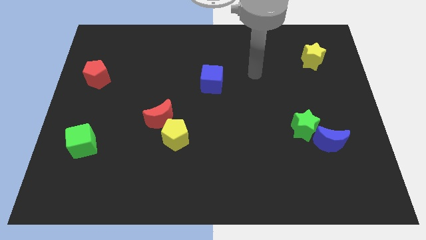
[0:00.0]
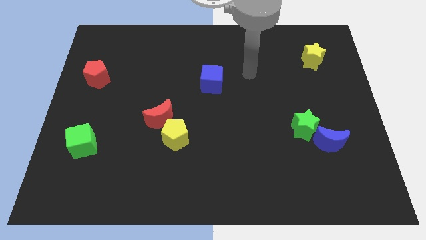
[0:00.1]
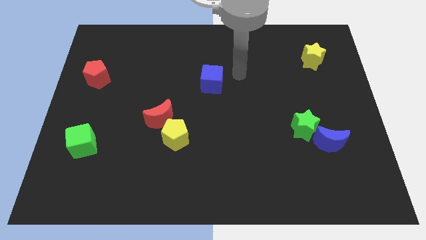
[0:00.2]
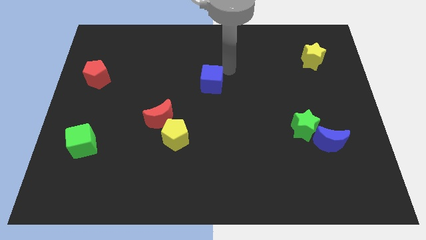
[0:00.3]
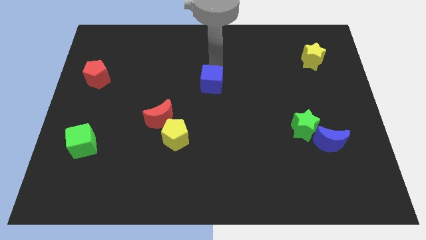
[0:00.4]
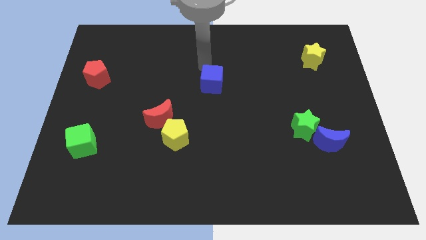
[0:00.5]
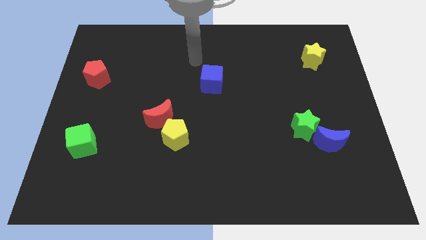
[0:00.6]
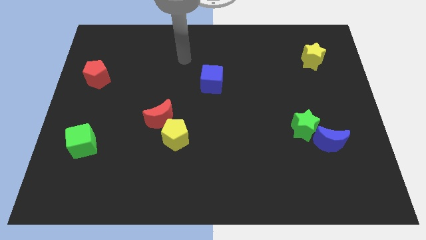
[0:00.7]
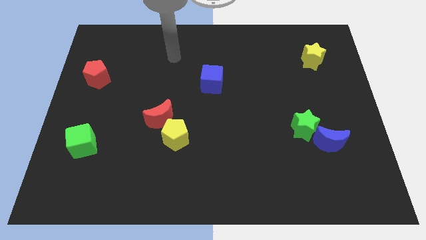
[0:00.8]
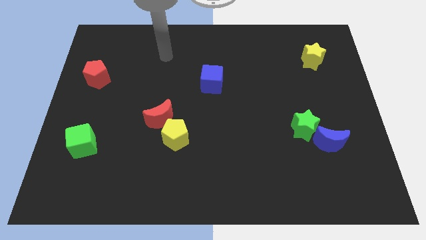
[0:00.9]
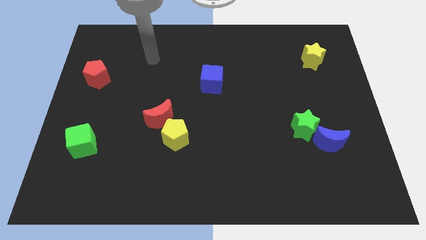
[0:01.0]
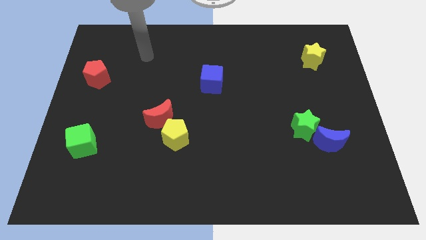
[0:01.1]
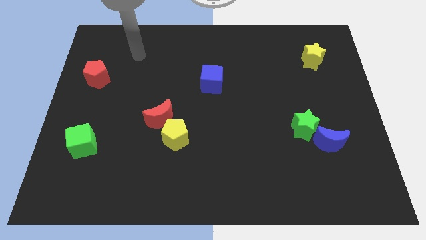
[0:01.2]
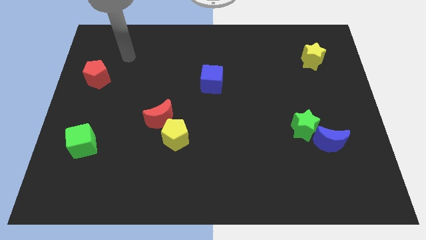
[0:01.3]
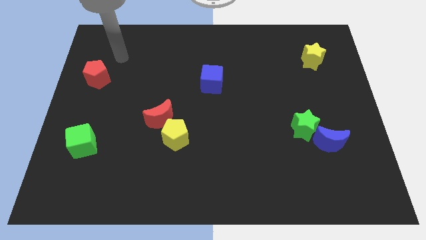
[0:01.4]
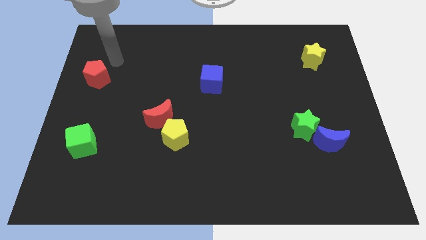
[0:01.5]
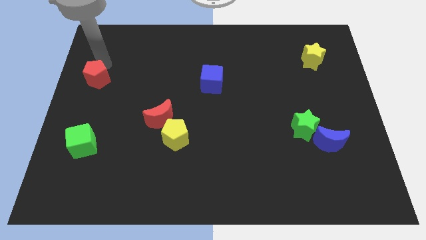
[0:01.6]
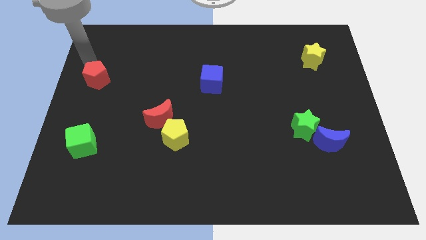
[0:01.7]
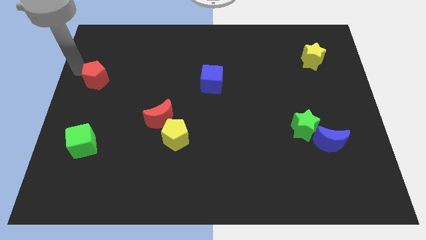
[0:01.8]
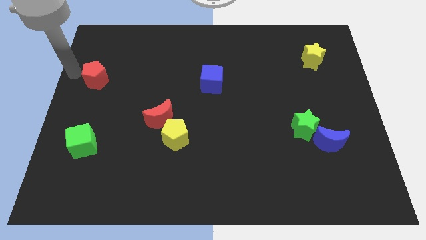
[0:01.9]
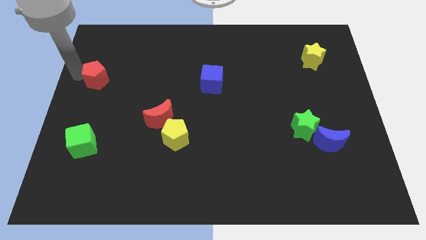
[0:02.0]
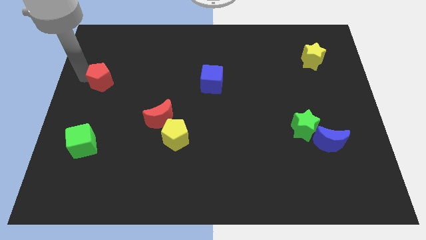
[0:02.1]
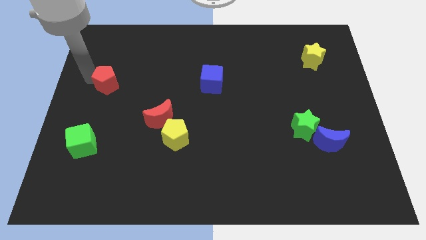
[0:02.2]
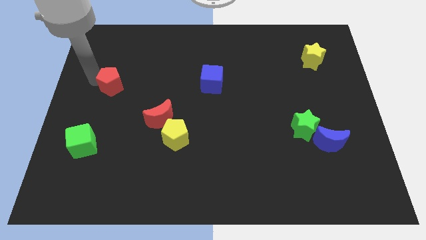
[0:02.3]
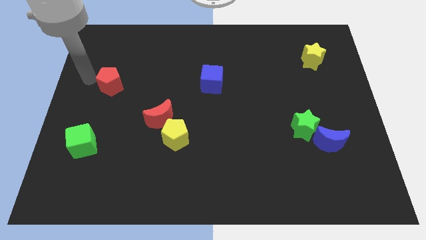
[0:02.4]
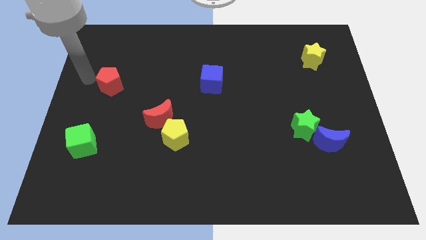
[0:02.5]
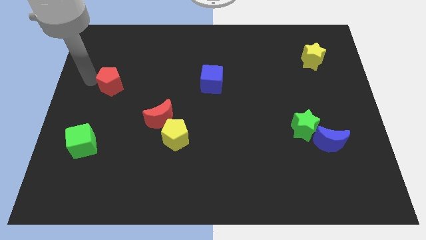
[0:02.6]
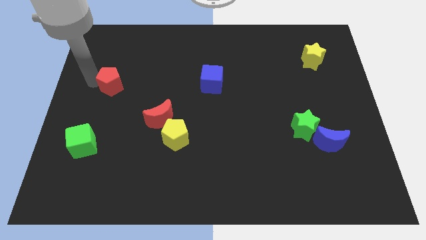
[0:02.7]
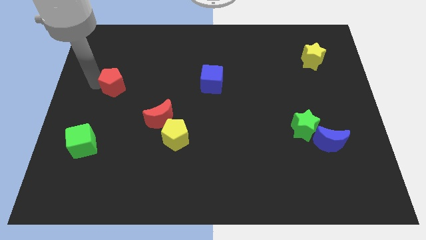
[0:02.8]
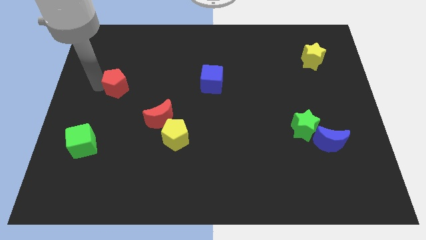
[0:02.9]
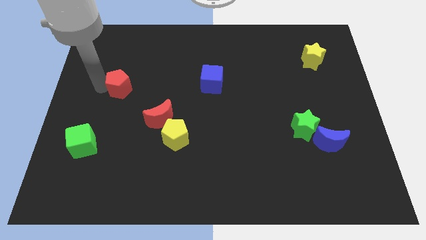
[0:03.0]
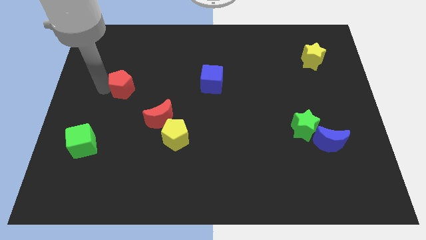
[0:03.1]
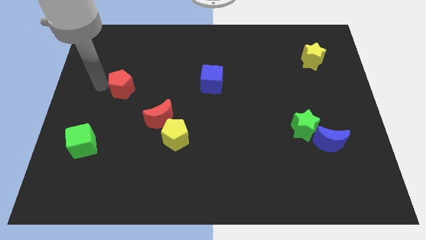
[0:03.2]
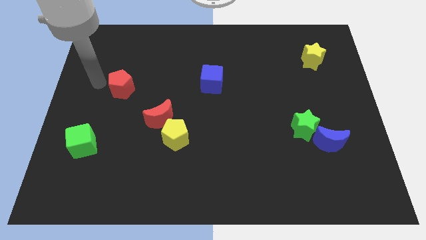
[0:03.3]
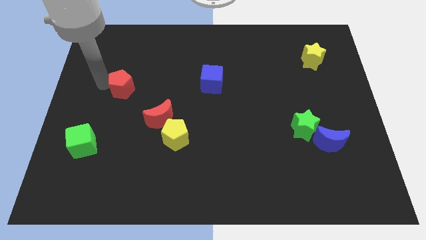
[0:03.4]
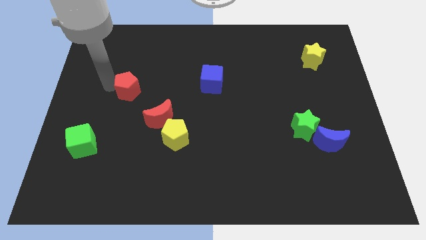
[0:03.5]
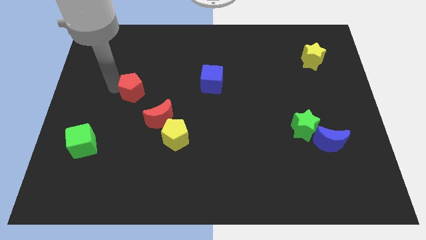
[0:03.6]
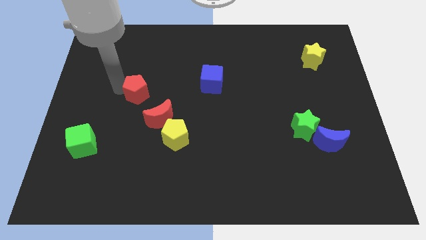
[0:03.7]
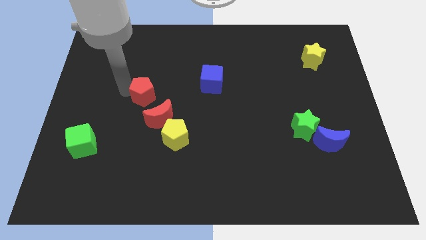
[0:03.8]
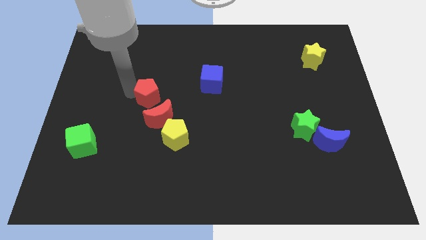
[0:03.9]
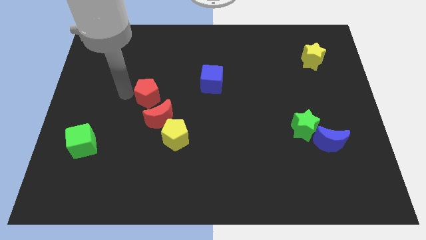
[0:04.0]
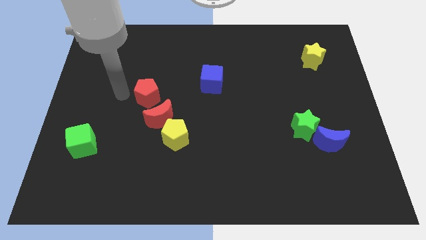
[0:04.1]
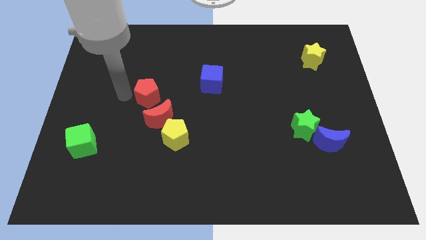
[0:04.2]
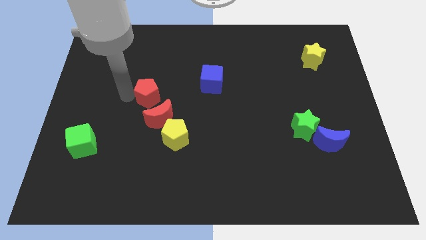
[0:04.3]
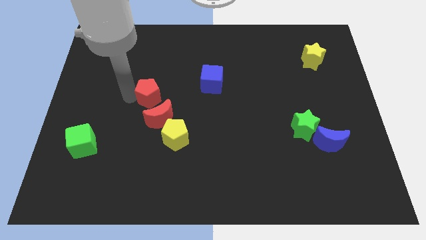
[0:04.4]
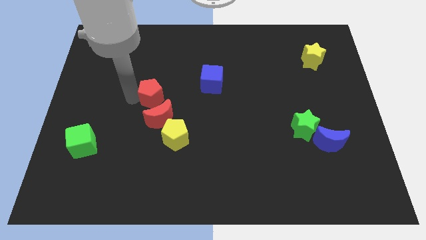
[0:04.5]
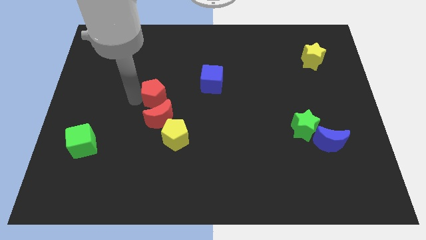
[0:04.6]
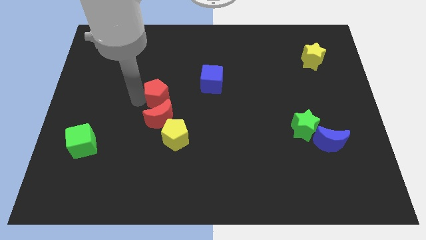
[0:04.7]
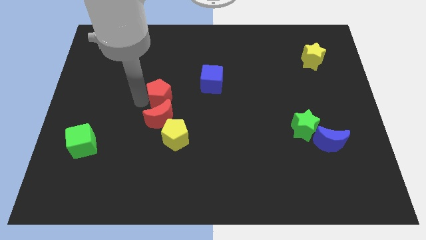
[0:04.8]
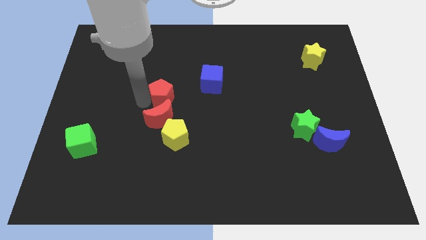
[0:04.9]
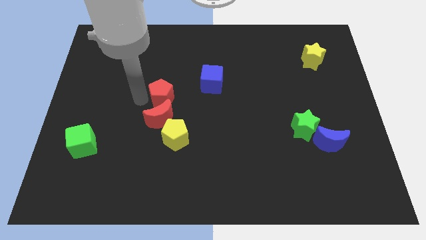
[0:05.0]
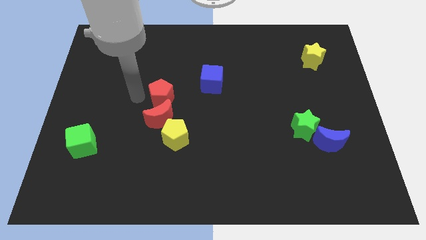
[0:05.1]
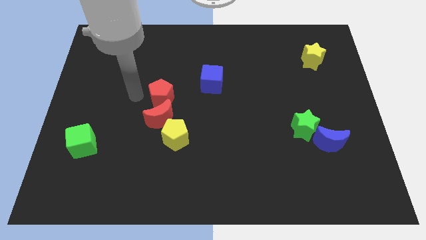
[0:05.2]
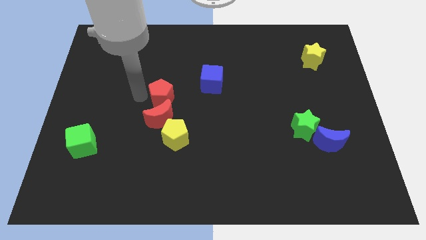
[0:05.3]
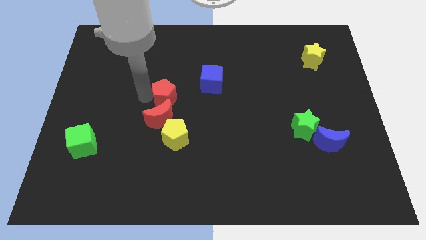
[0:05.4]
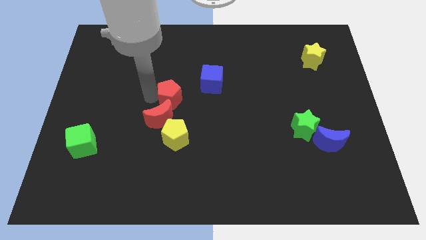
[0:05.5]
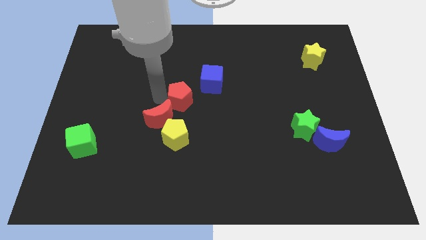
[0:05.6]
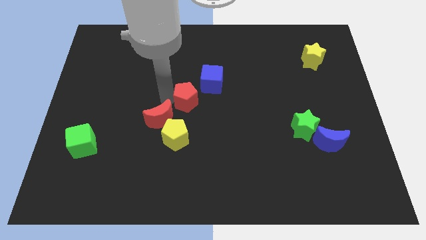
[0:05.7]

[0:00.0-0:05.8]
push the red pentagon right

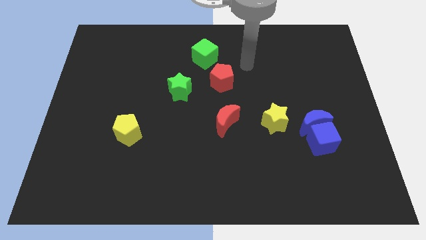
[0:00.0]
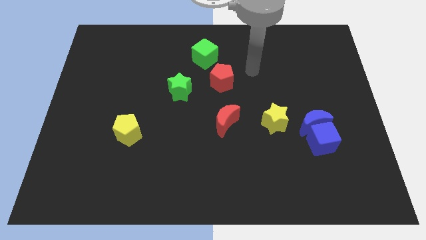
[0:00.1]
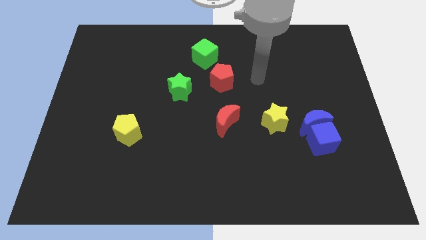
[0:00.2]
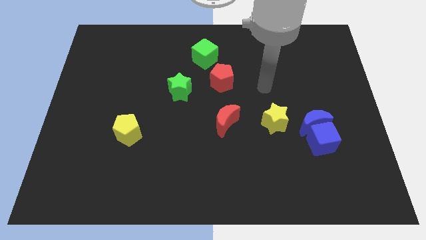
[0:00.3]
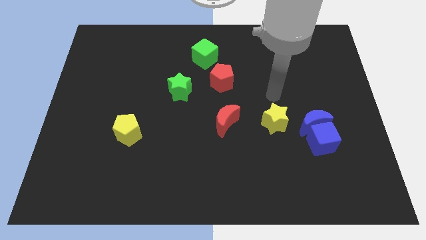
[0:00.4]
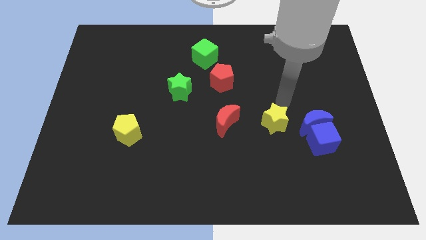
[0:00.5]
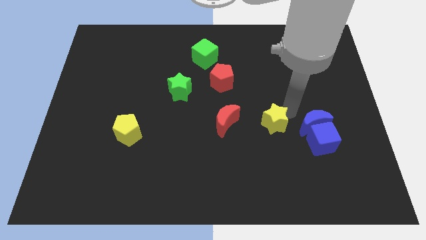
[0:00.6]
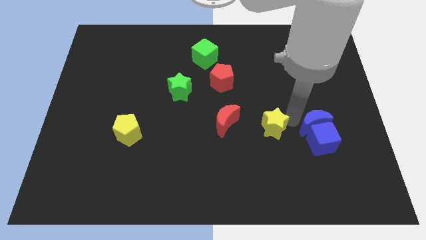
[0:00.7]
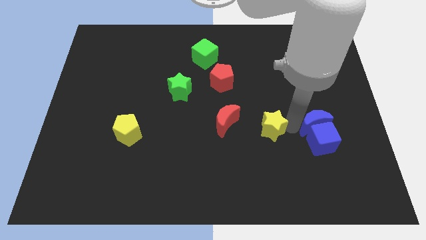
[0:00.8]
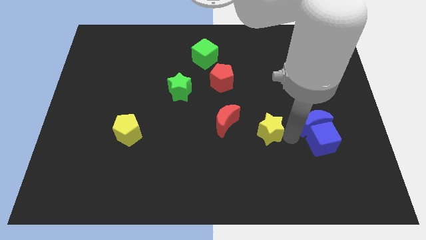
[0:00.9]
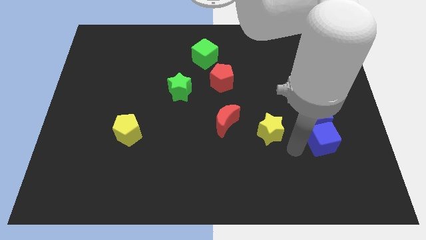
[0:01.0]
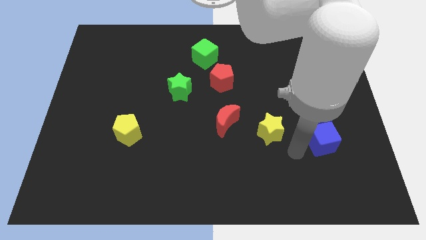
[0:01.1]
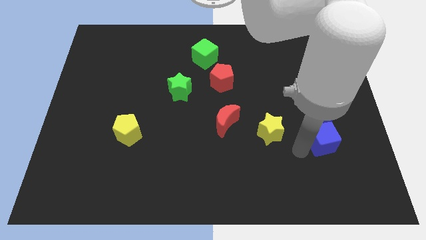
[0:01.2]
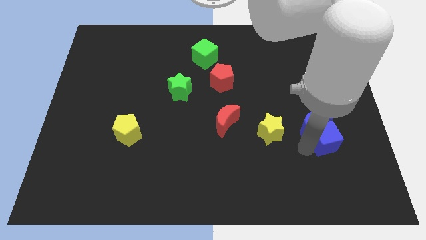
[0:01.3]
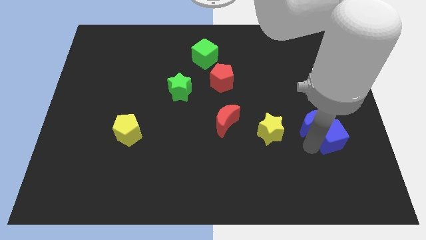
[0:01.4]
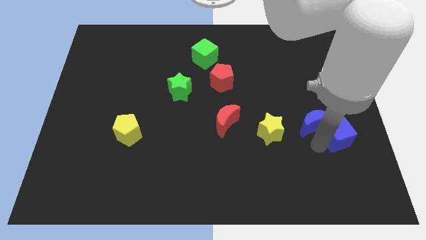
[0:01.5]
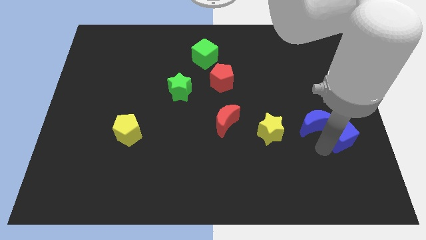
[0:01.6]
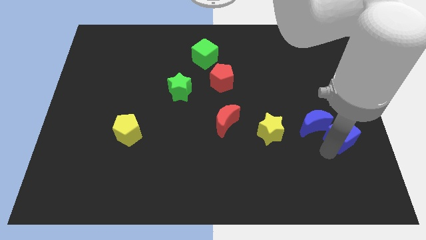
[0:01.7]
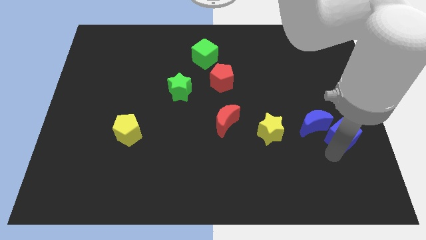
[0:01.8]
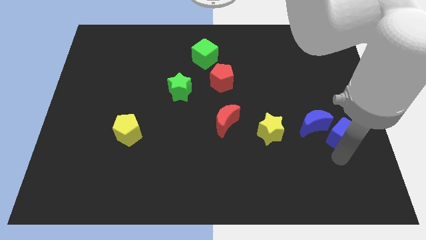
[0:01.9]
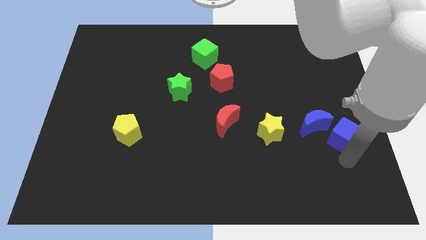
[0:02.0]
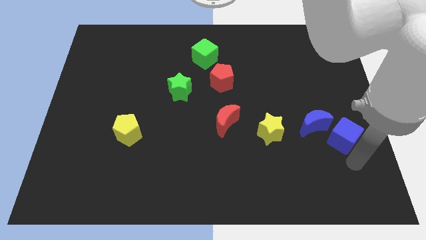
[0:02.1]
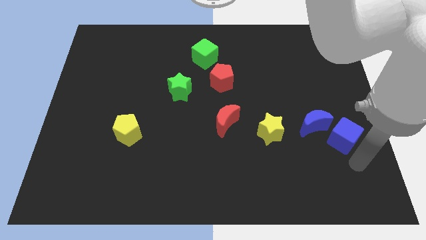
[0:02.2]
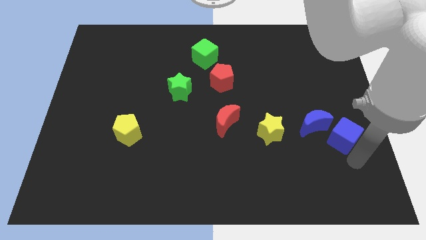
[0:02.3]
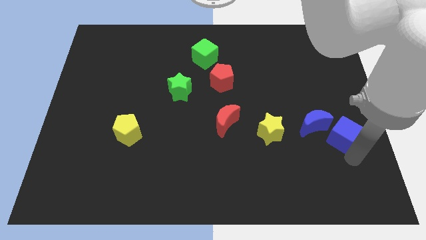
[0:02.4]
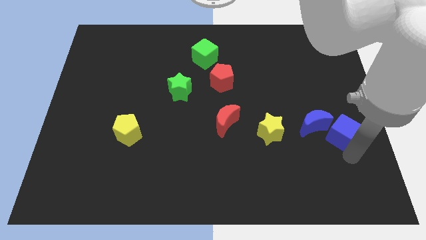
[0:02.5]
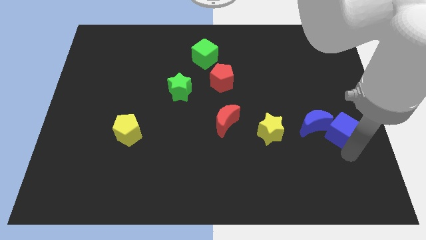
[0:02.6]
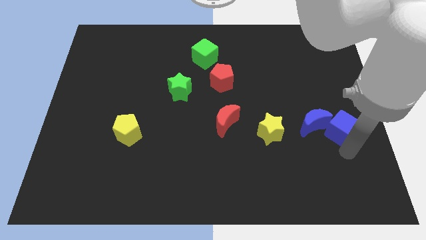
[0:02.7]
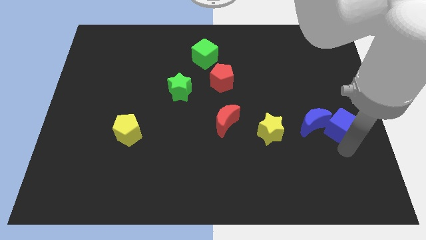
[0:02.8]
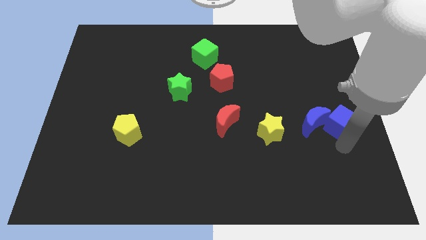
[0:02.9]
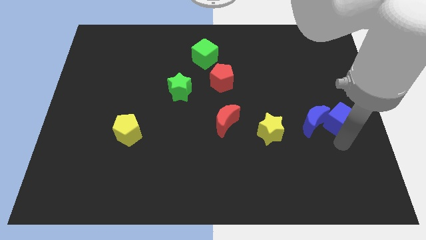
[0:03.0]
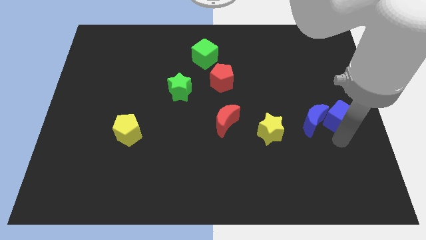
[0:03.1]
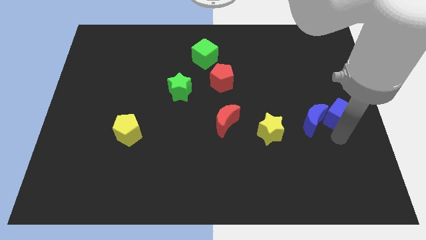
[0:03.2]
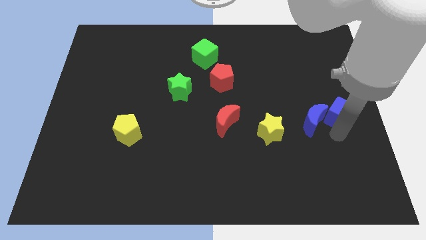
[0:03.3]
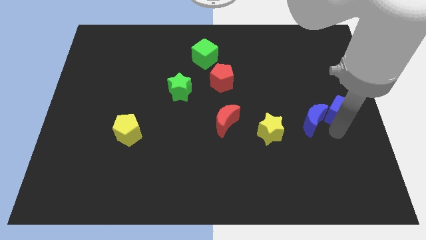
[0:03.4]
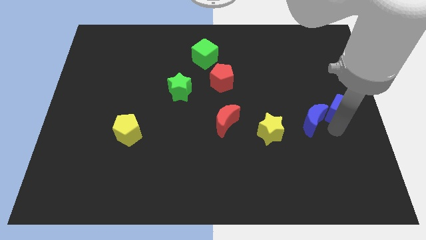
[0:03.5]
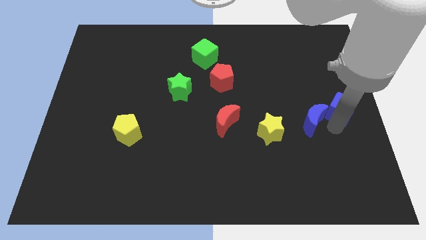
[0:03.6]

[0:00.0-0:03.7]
slightly push the blue cube upwards
